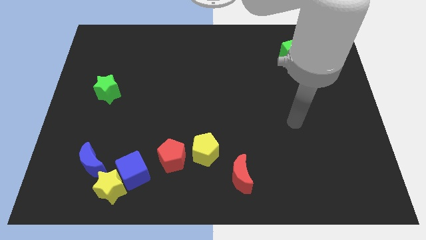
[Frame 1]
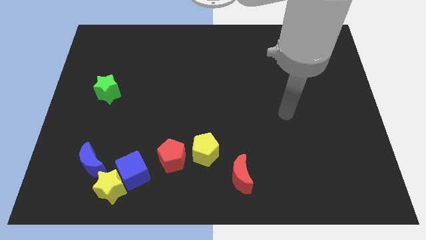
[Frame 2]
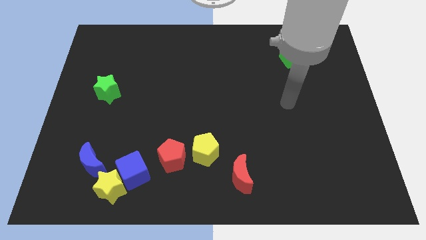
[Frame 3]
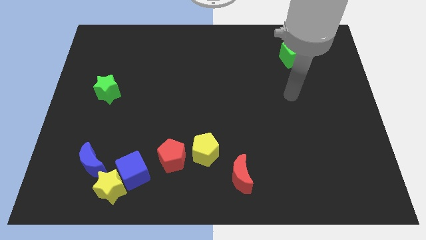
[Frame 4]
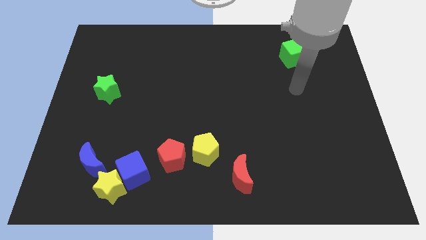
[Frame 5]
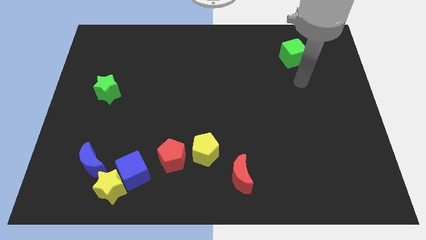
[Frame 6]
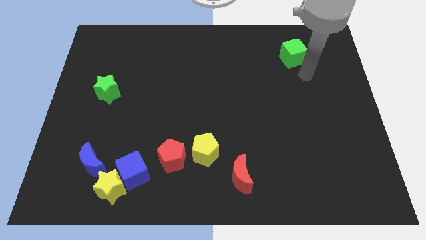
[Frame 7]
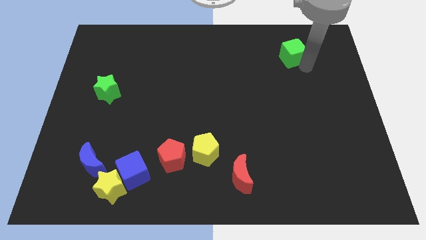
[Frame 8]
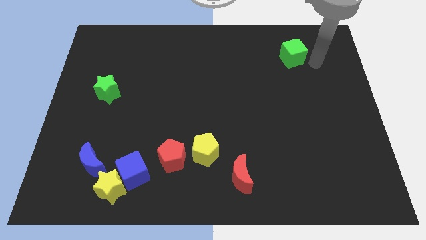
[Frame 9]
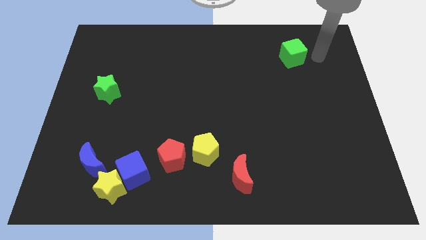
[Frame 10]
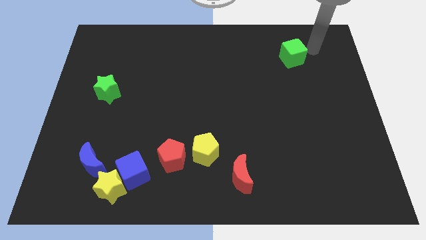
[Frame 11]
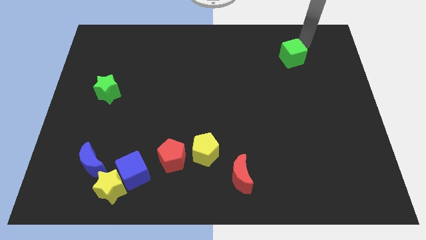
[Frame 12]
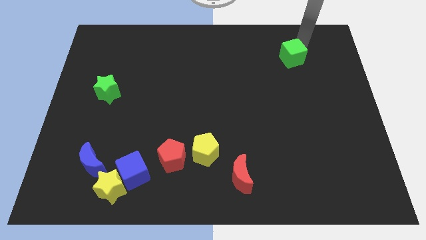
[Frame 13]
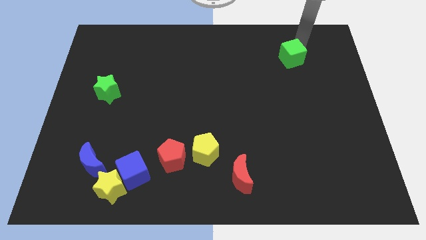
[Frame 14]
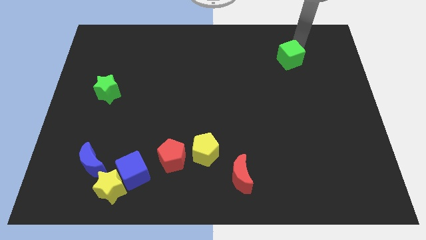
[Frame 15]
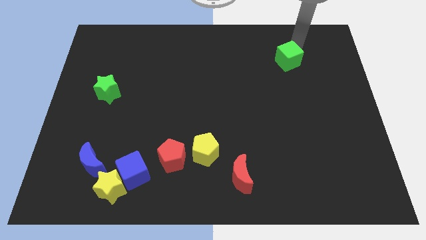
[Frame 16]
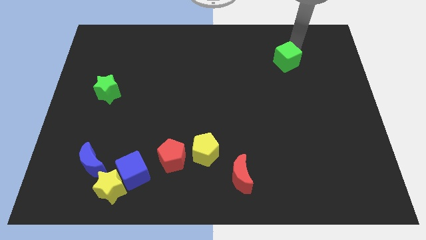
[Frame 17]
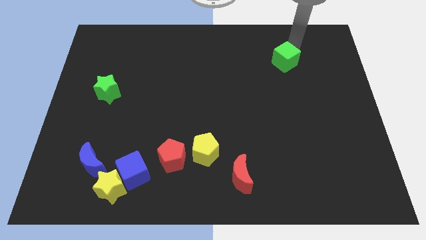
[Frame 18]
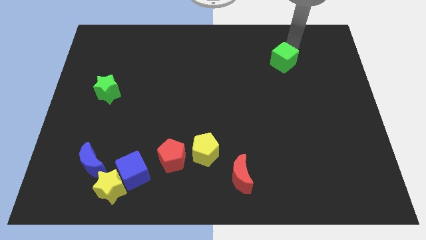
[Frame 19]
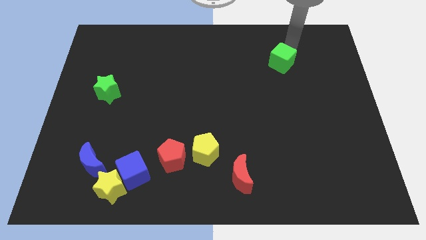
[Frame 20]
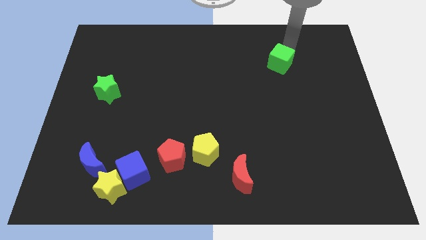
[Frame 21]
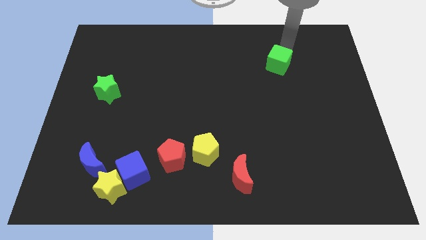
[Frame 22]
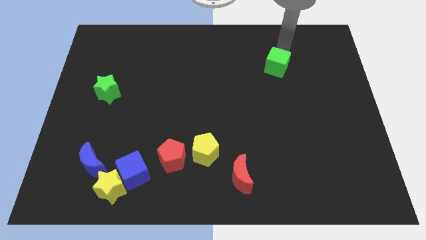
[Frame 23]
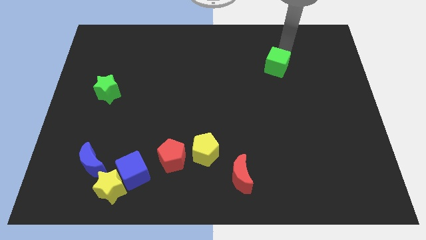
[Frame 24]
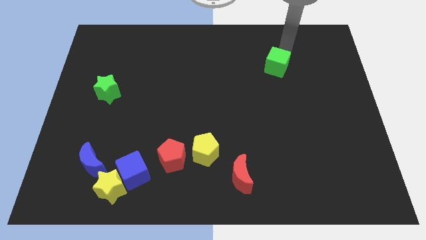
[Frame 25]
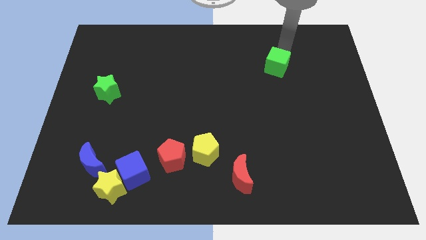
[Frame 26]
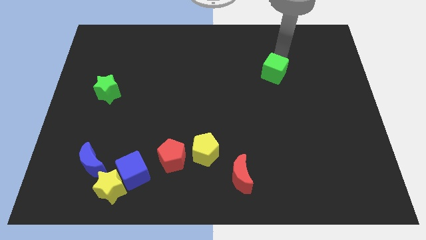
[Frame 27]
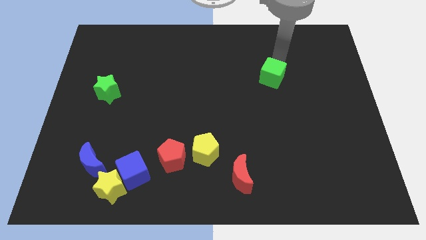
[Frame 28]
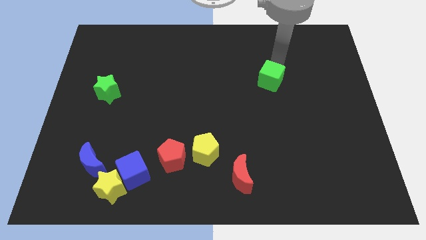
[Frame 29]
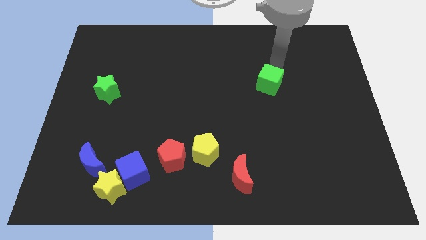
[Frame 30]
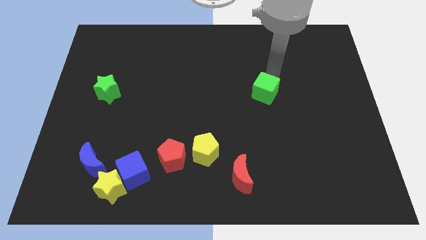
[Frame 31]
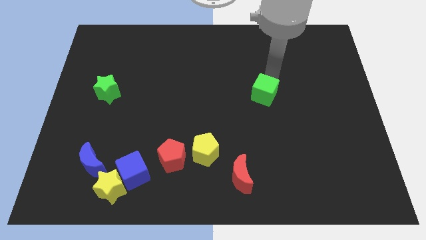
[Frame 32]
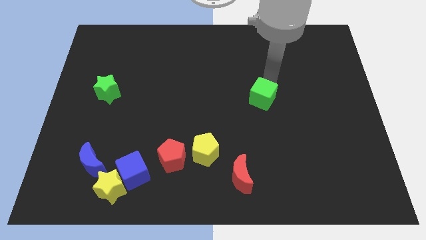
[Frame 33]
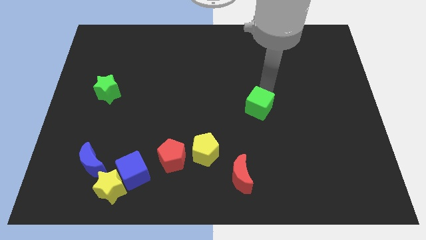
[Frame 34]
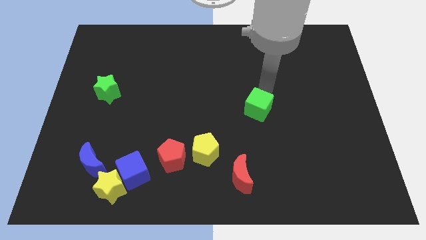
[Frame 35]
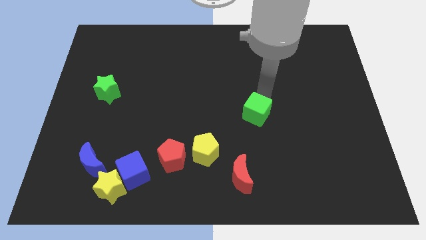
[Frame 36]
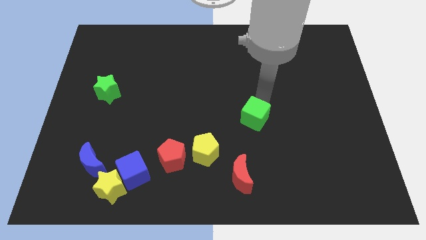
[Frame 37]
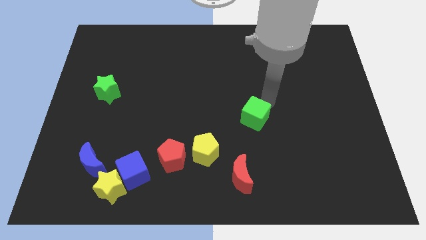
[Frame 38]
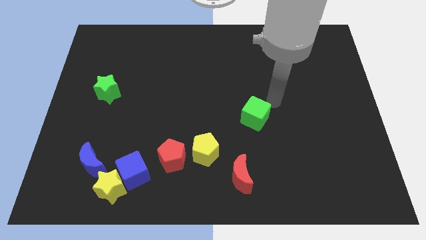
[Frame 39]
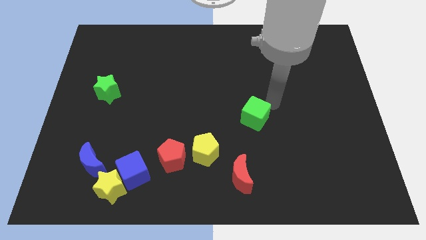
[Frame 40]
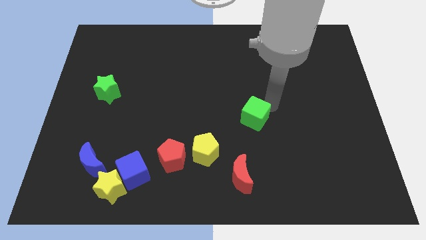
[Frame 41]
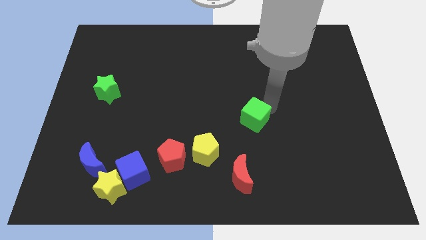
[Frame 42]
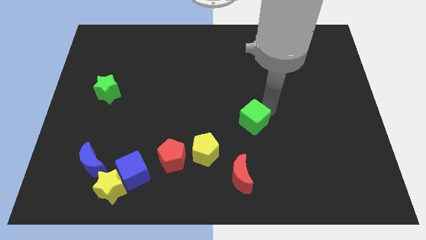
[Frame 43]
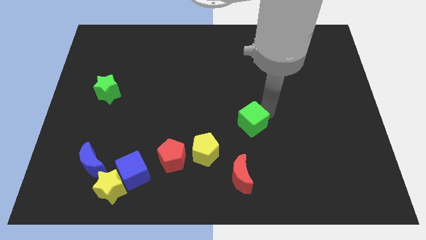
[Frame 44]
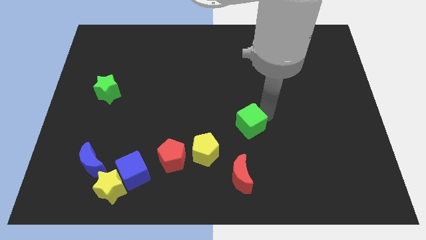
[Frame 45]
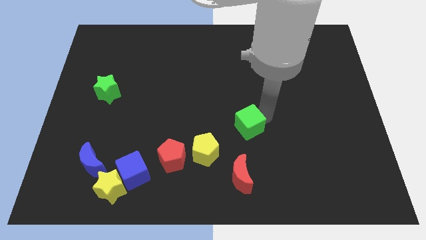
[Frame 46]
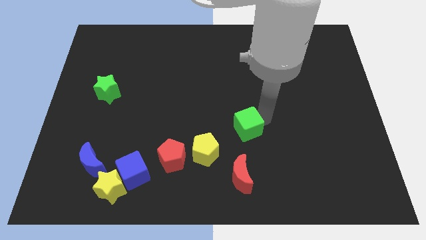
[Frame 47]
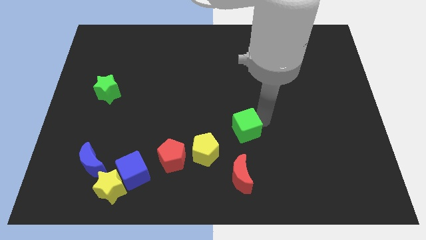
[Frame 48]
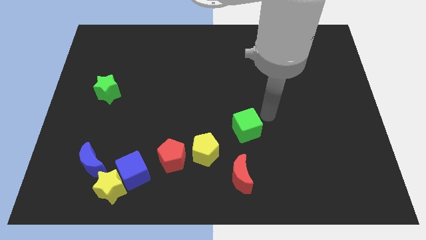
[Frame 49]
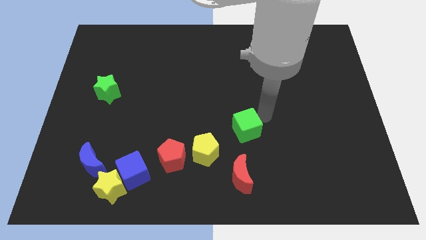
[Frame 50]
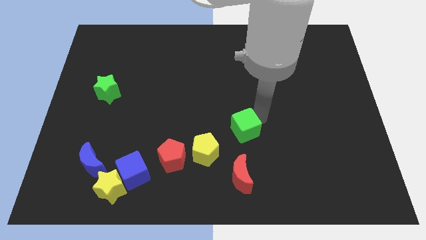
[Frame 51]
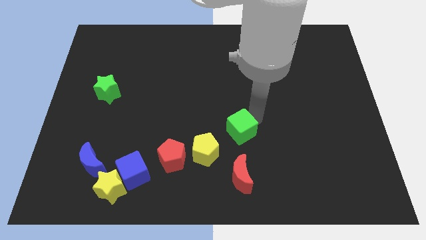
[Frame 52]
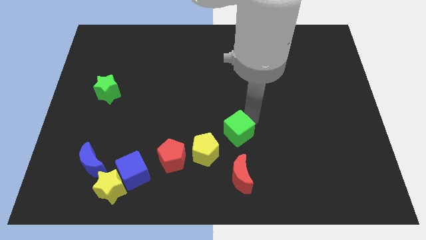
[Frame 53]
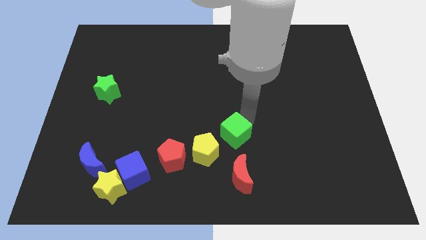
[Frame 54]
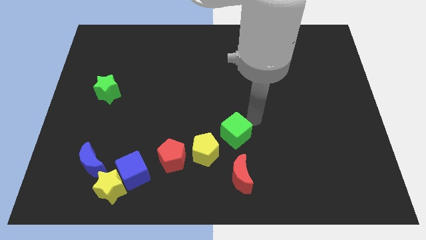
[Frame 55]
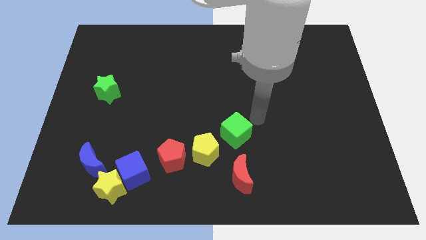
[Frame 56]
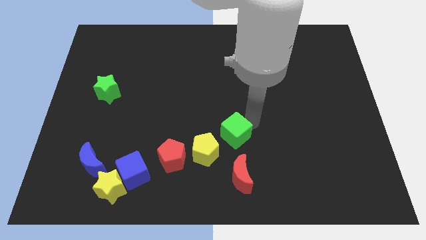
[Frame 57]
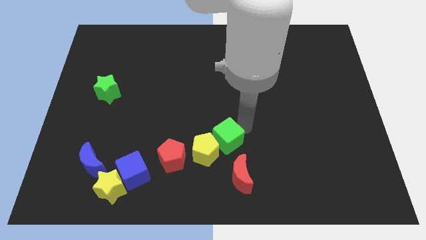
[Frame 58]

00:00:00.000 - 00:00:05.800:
put the green cube close to the yellow pentagon

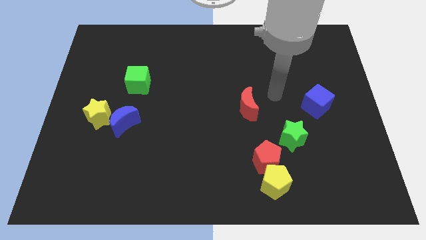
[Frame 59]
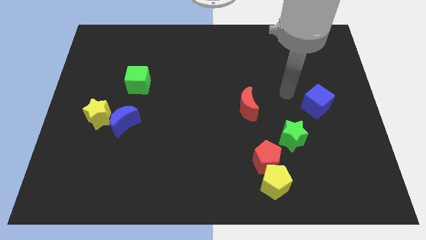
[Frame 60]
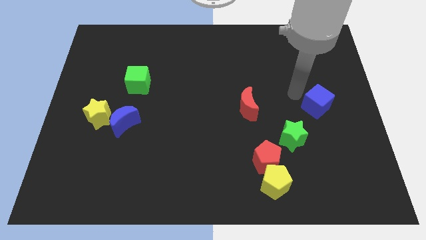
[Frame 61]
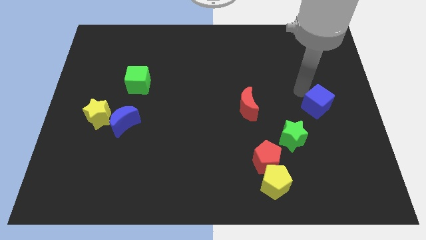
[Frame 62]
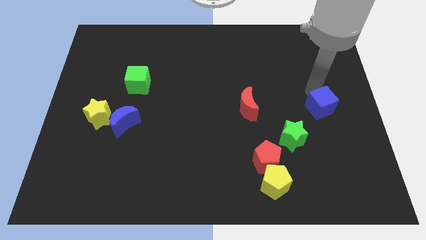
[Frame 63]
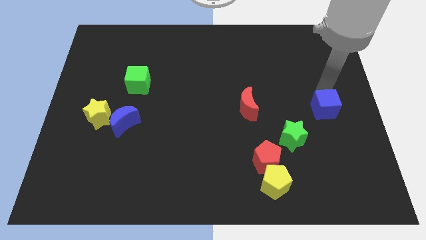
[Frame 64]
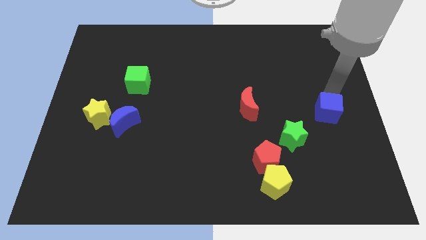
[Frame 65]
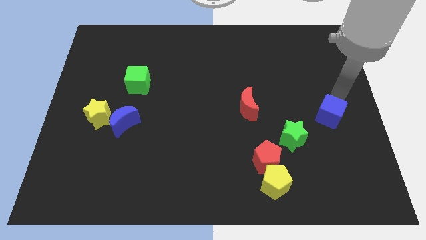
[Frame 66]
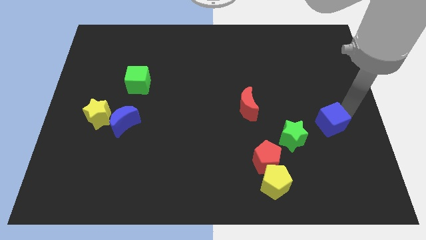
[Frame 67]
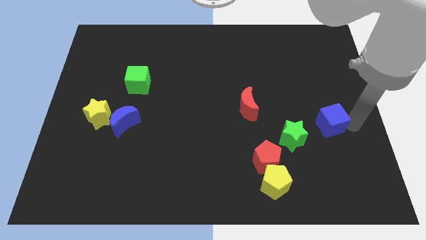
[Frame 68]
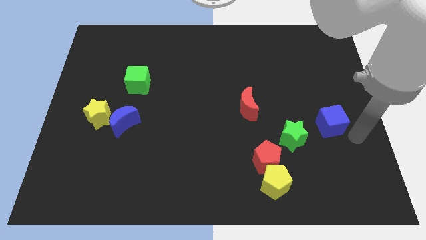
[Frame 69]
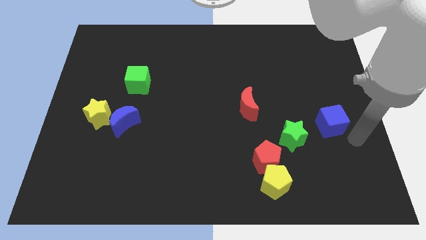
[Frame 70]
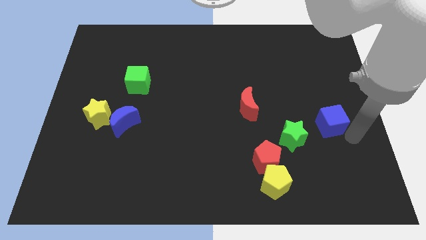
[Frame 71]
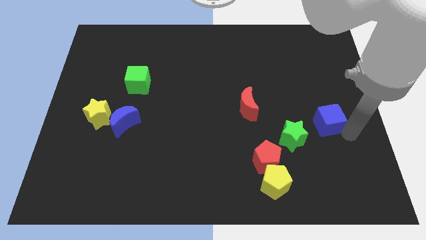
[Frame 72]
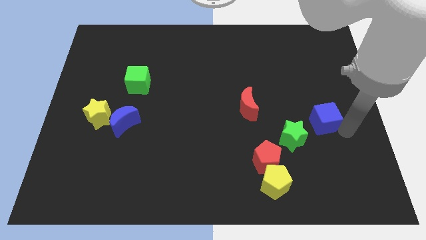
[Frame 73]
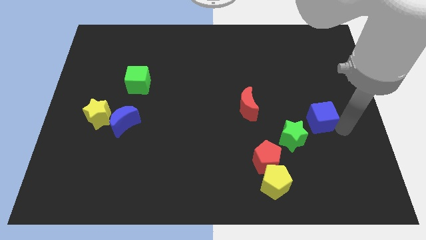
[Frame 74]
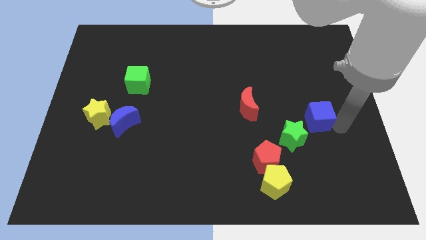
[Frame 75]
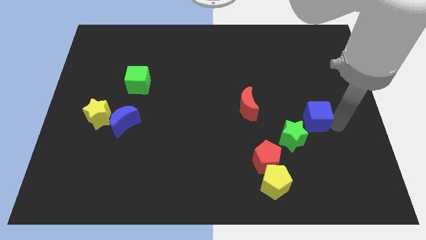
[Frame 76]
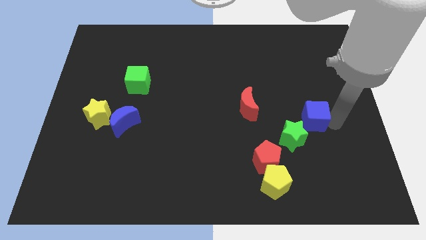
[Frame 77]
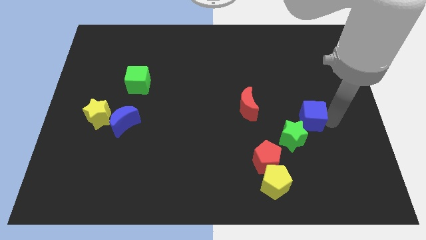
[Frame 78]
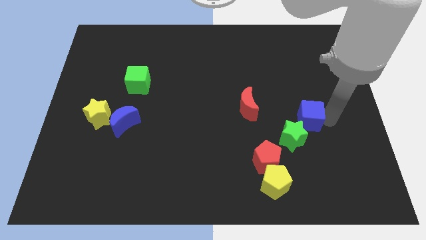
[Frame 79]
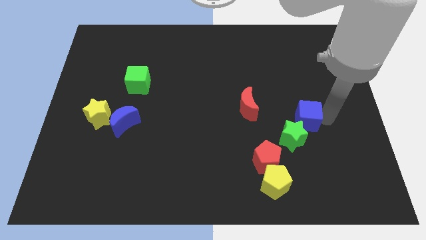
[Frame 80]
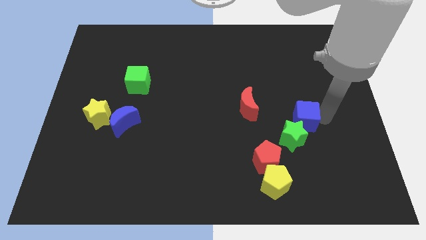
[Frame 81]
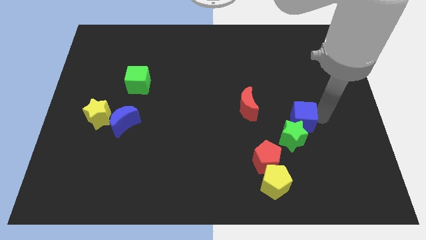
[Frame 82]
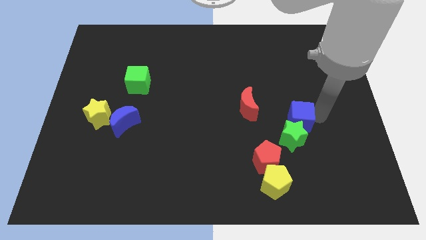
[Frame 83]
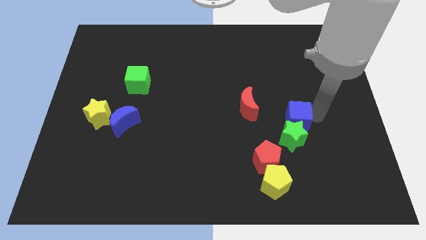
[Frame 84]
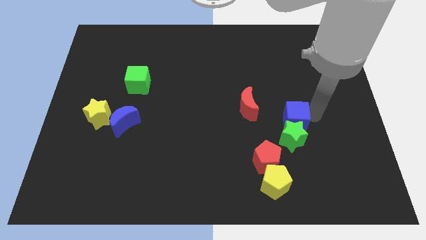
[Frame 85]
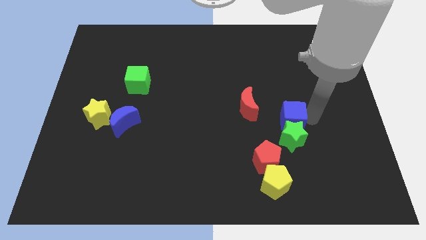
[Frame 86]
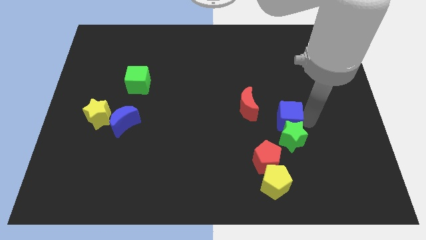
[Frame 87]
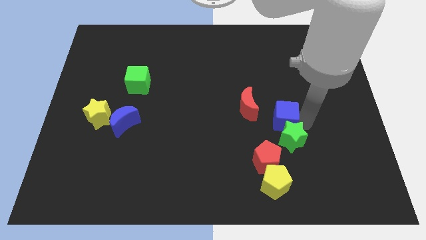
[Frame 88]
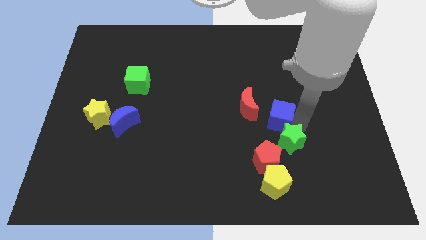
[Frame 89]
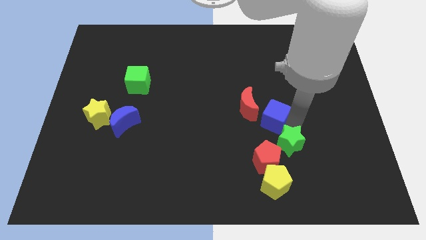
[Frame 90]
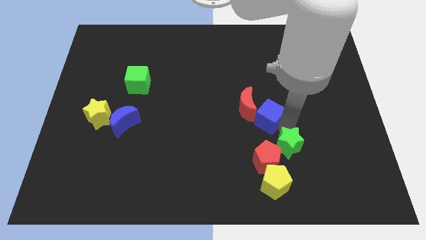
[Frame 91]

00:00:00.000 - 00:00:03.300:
move the blue cube close to the red moon
